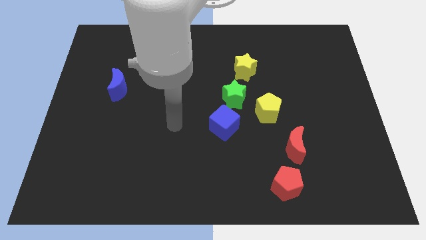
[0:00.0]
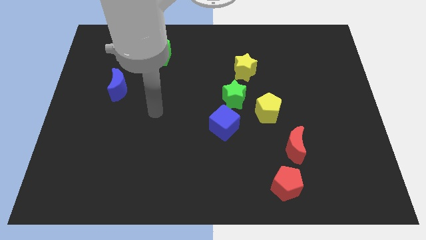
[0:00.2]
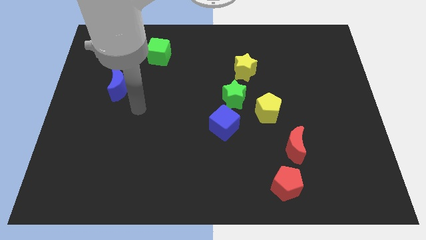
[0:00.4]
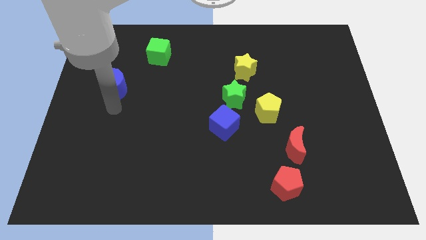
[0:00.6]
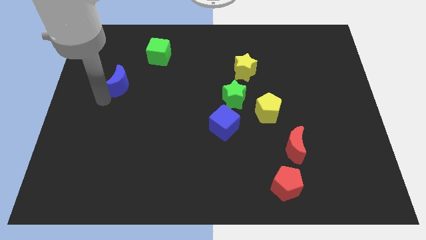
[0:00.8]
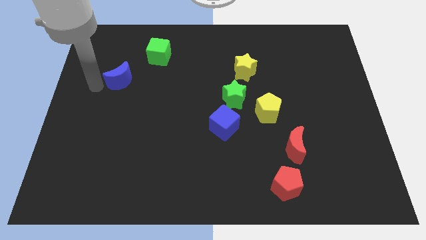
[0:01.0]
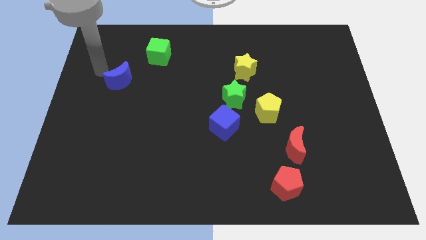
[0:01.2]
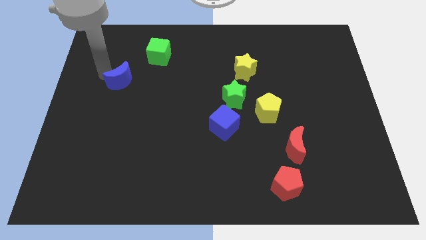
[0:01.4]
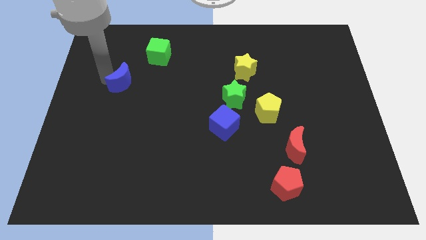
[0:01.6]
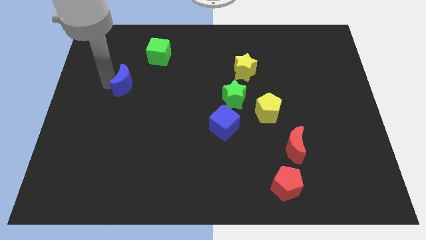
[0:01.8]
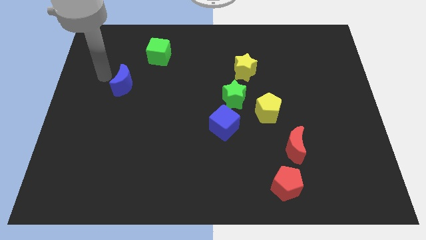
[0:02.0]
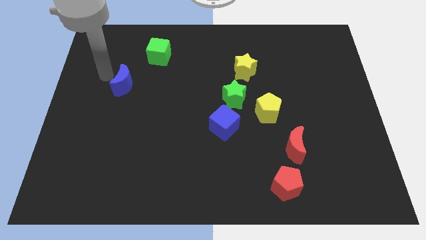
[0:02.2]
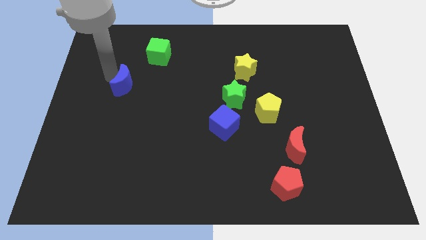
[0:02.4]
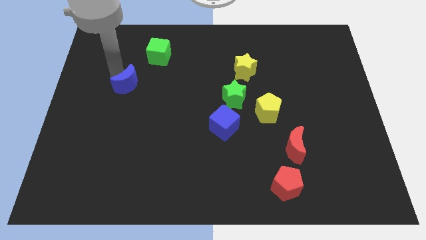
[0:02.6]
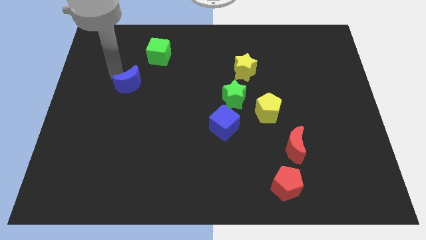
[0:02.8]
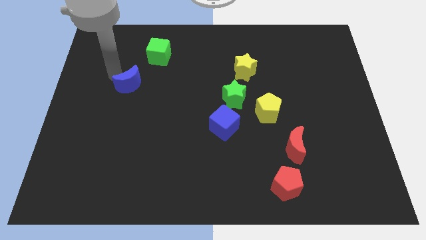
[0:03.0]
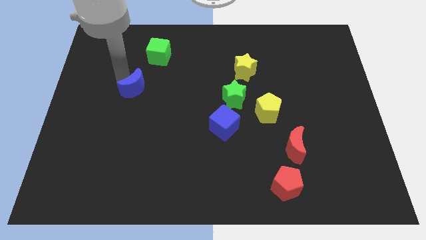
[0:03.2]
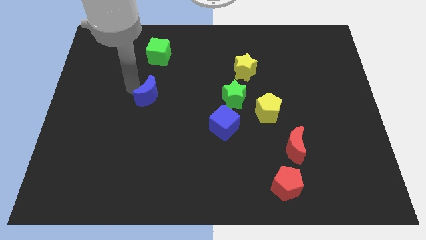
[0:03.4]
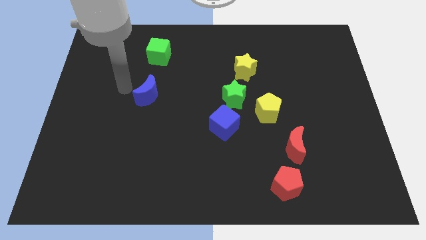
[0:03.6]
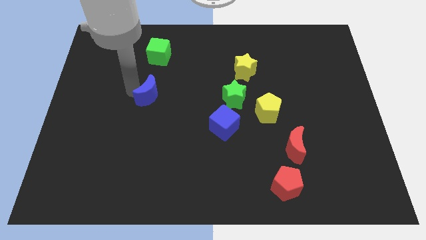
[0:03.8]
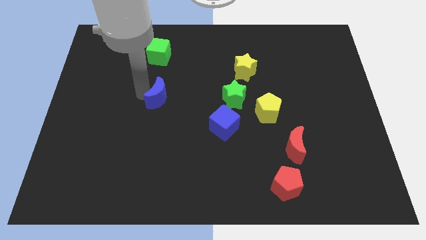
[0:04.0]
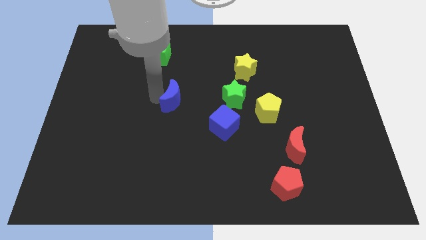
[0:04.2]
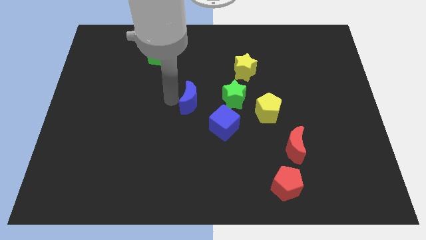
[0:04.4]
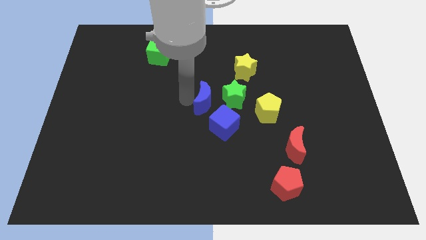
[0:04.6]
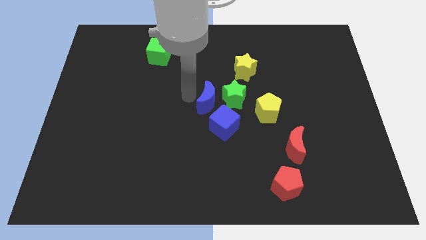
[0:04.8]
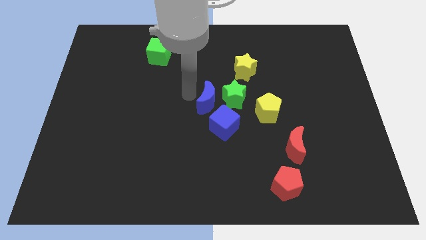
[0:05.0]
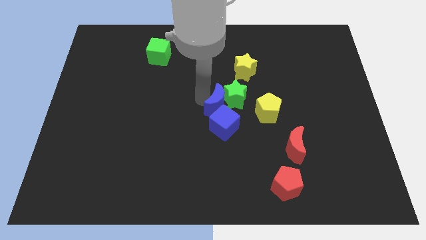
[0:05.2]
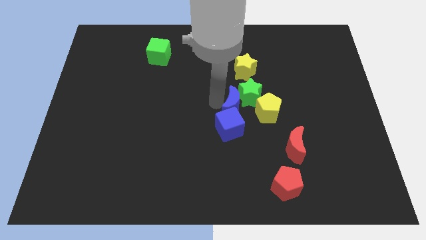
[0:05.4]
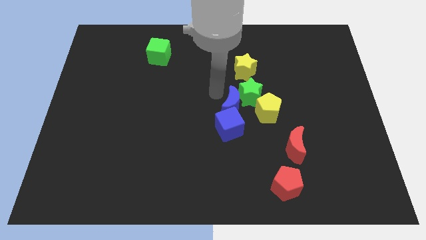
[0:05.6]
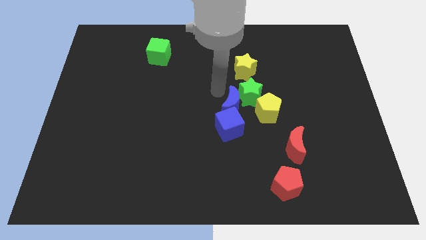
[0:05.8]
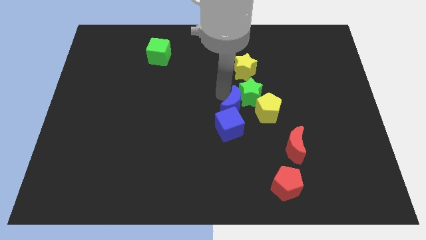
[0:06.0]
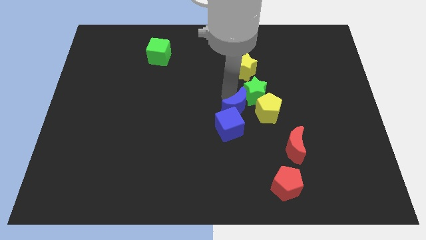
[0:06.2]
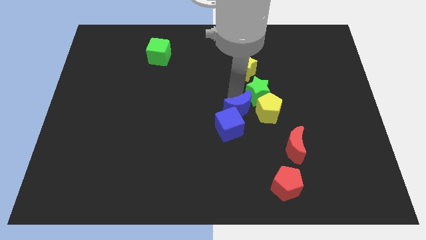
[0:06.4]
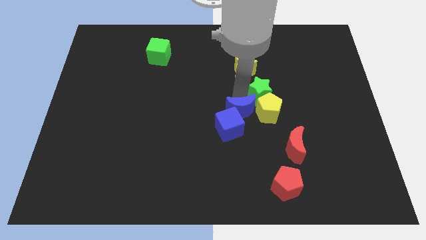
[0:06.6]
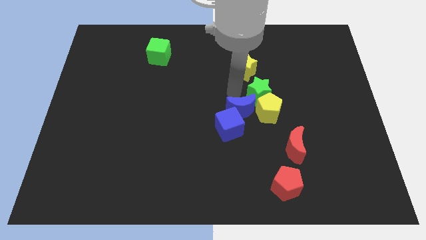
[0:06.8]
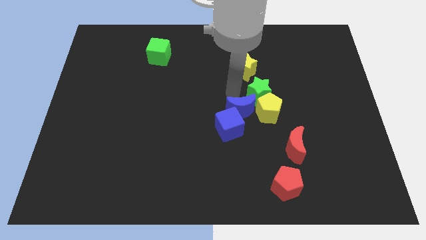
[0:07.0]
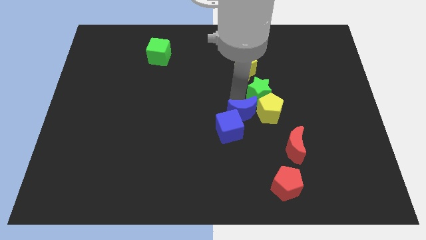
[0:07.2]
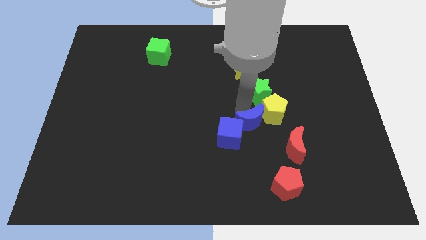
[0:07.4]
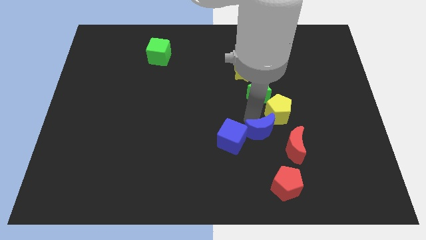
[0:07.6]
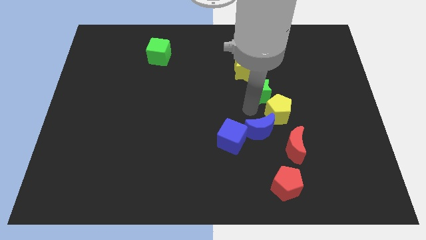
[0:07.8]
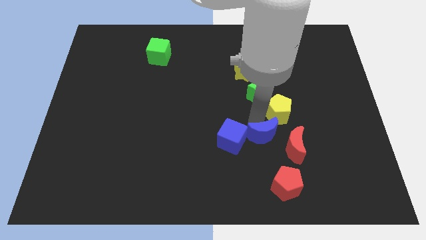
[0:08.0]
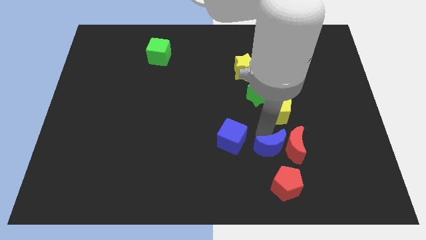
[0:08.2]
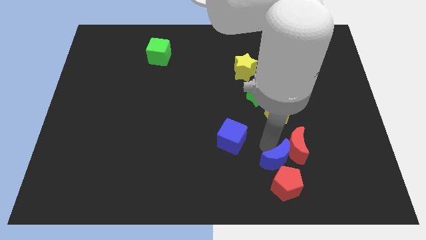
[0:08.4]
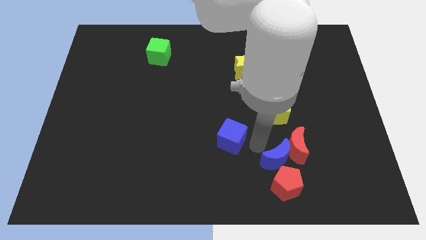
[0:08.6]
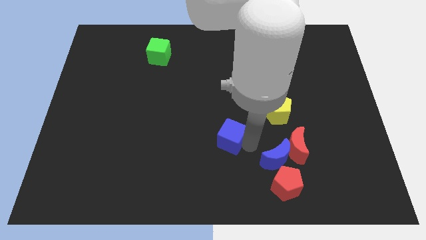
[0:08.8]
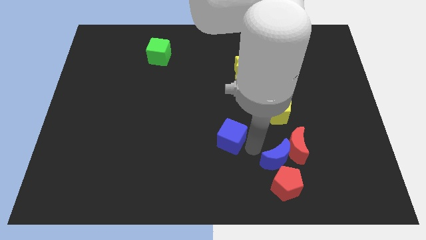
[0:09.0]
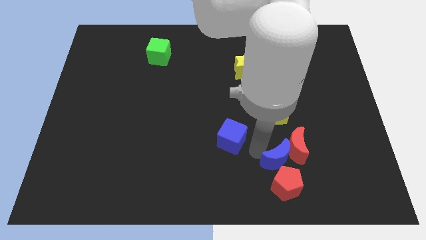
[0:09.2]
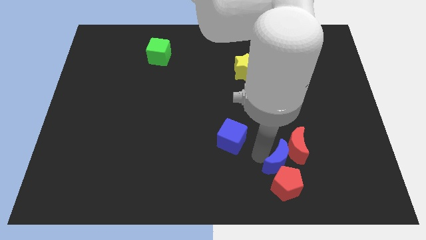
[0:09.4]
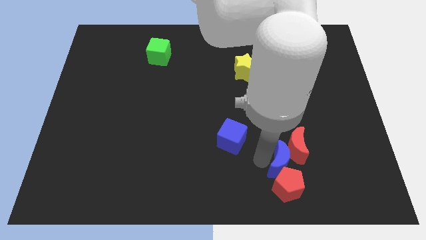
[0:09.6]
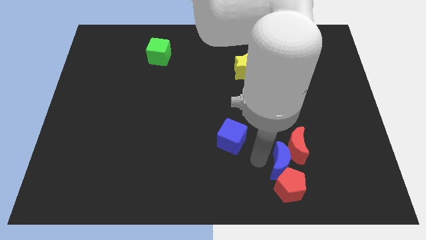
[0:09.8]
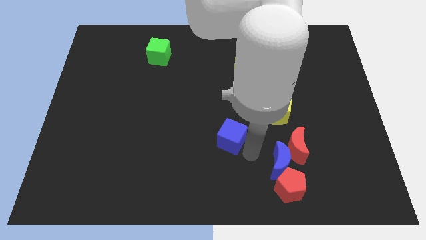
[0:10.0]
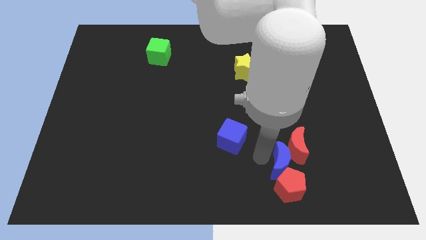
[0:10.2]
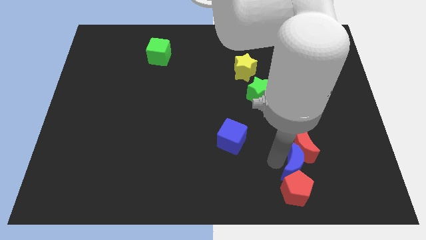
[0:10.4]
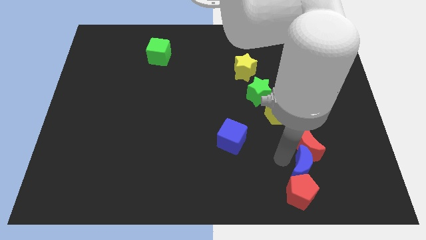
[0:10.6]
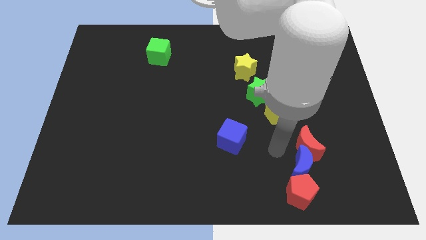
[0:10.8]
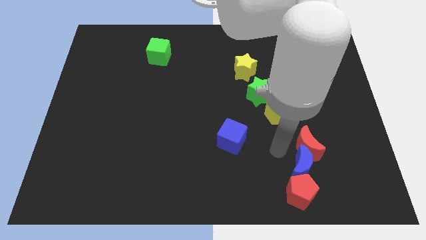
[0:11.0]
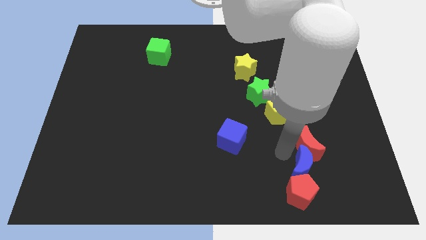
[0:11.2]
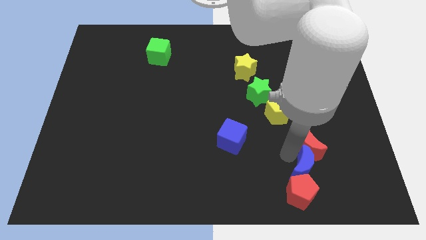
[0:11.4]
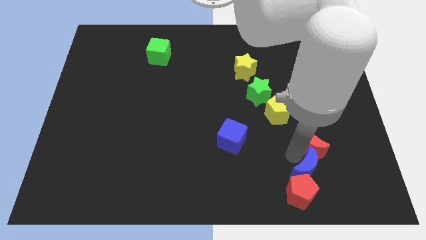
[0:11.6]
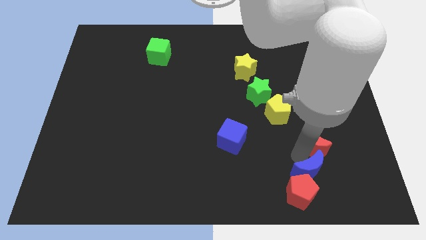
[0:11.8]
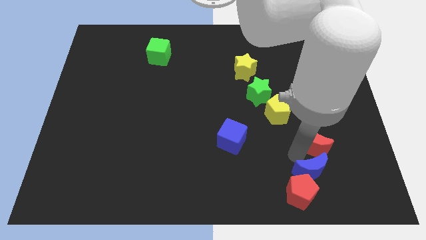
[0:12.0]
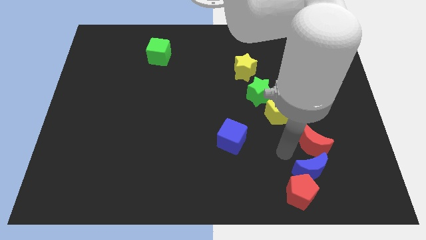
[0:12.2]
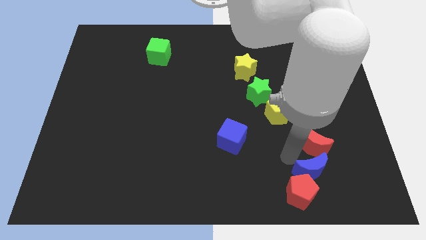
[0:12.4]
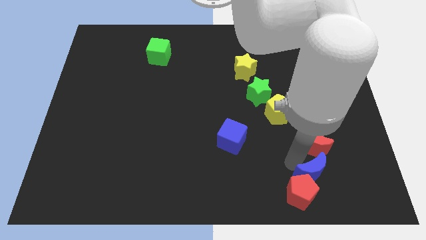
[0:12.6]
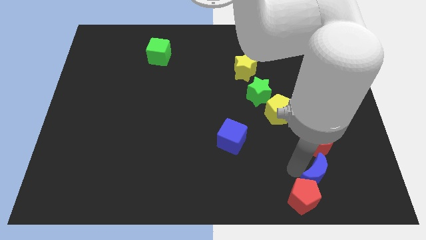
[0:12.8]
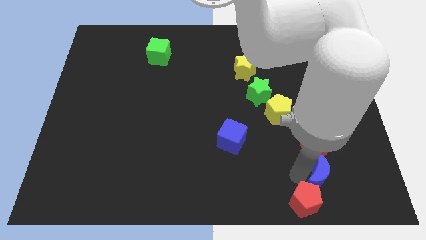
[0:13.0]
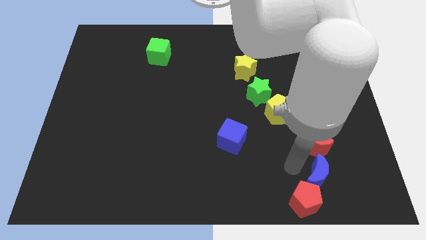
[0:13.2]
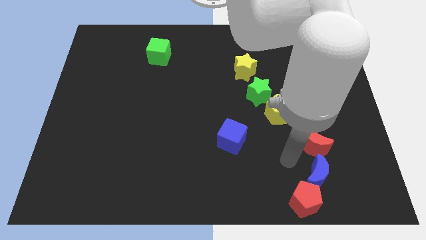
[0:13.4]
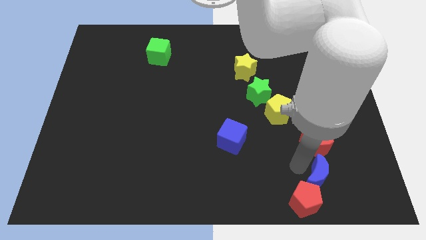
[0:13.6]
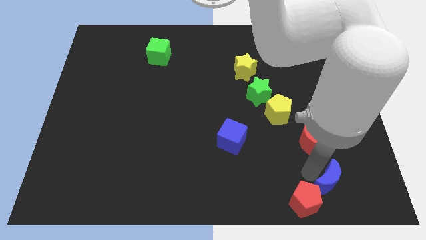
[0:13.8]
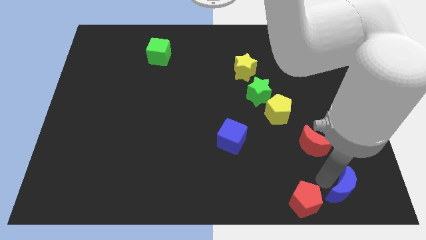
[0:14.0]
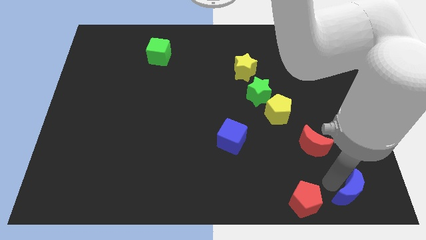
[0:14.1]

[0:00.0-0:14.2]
slide the blue moon to the bottom right
